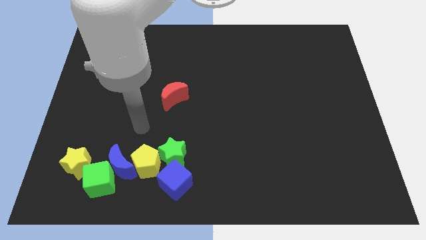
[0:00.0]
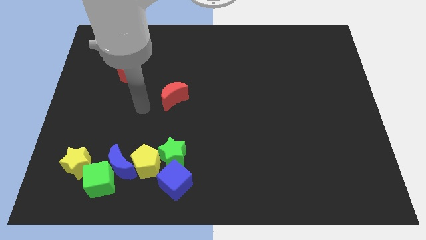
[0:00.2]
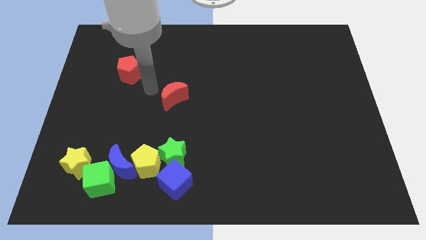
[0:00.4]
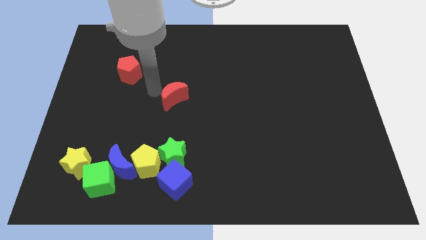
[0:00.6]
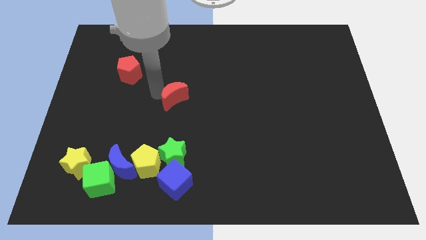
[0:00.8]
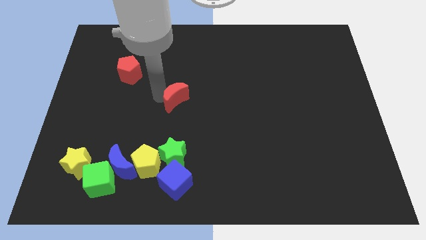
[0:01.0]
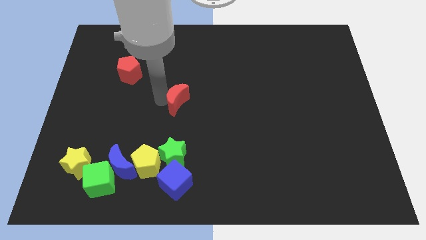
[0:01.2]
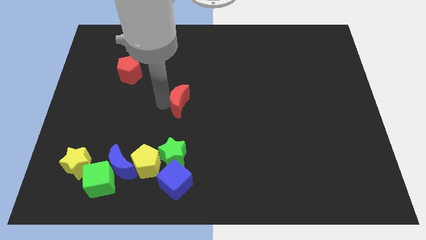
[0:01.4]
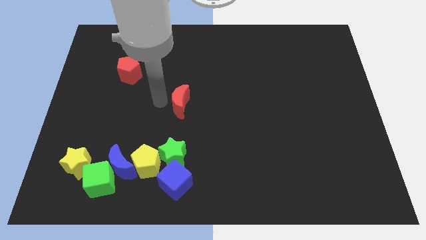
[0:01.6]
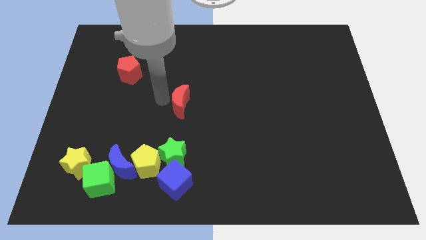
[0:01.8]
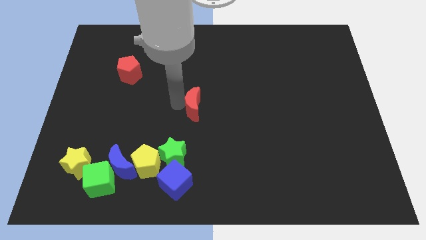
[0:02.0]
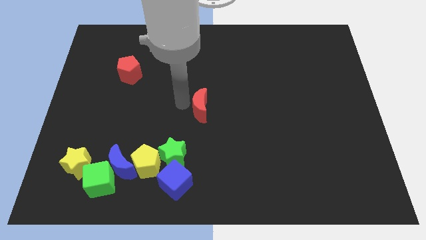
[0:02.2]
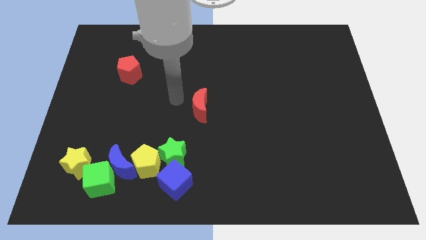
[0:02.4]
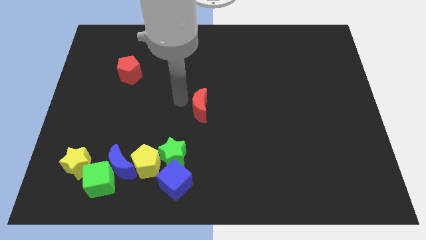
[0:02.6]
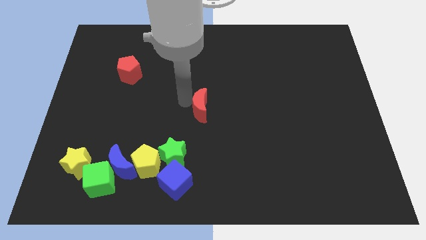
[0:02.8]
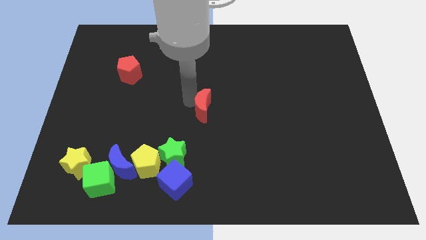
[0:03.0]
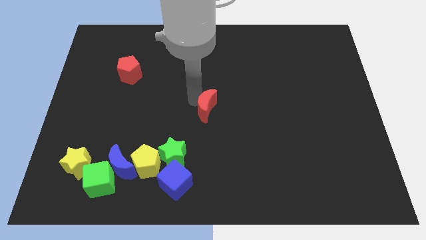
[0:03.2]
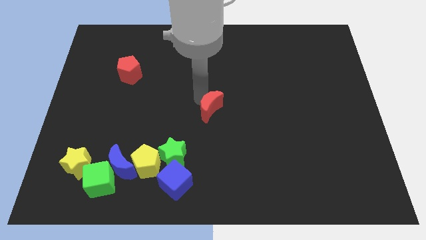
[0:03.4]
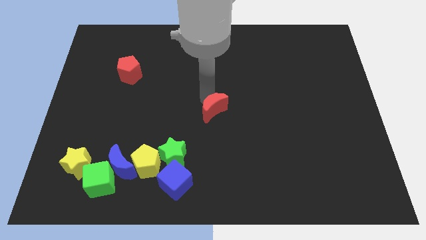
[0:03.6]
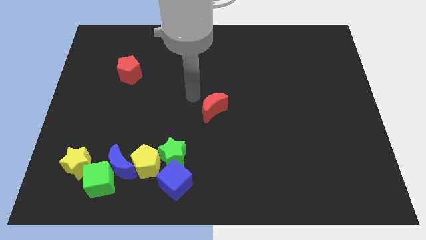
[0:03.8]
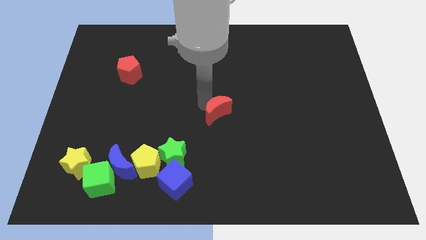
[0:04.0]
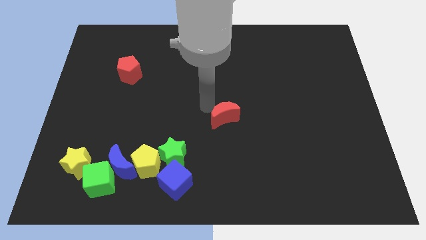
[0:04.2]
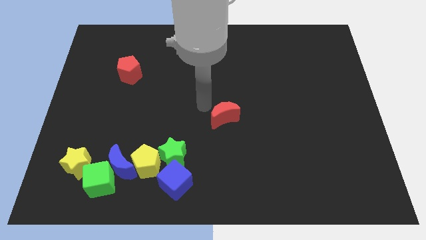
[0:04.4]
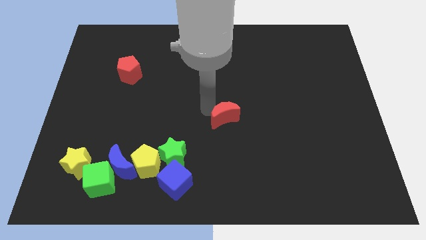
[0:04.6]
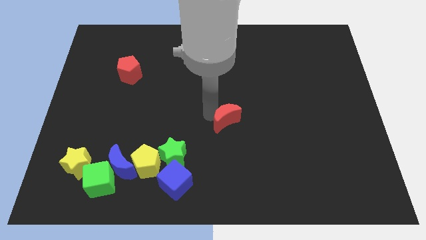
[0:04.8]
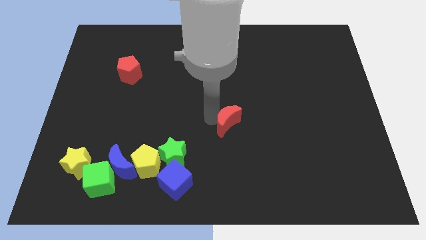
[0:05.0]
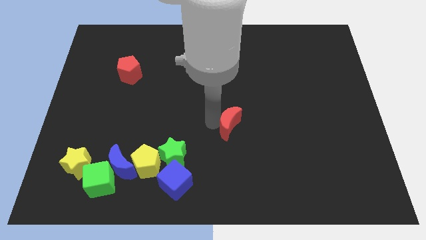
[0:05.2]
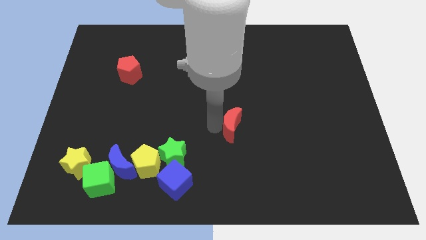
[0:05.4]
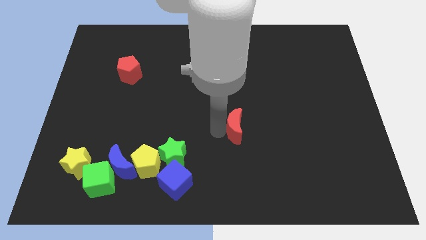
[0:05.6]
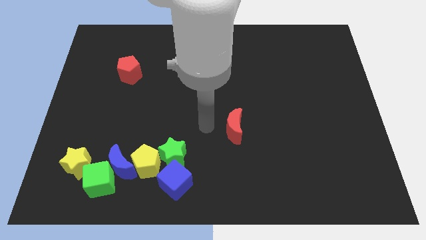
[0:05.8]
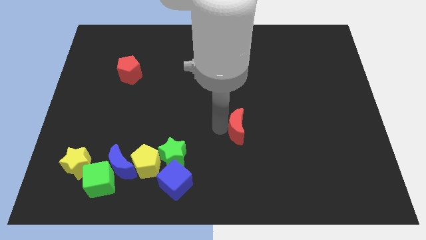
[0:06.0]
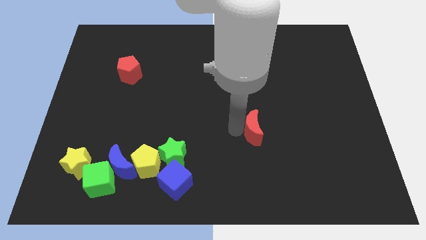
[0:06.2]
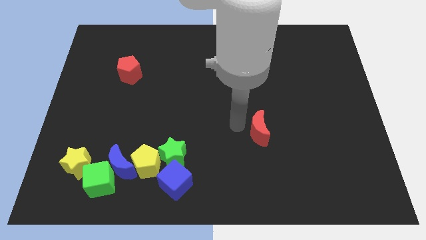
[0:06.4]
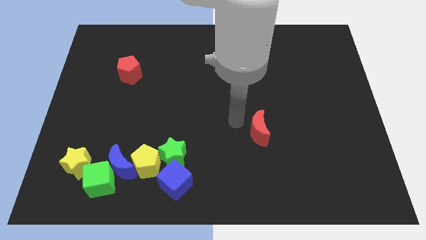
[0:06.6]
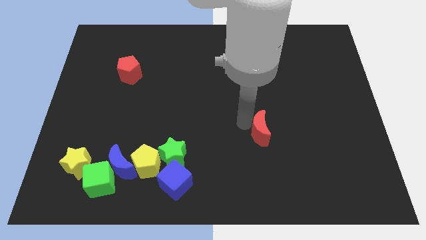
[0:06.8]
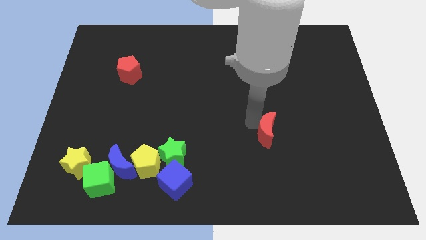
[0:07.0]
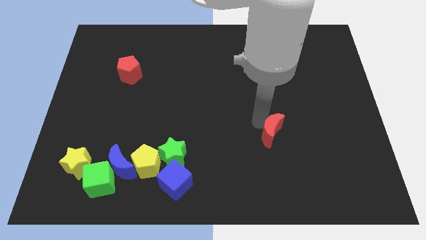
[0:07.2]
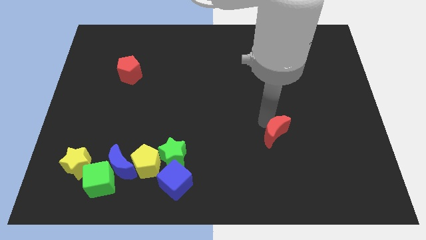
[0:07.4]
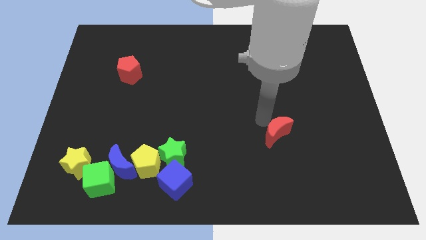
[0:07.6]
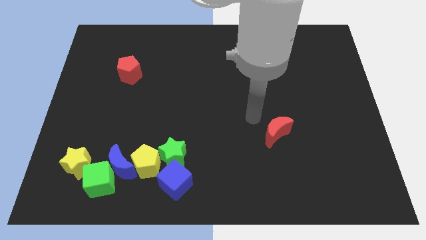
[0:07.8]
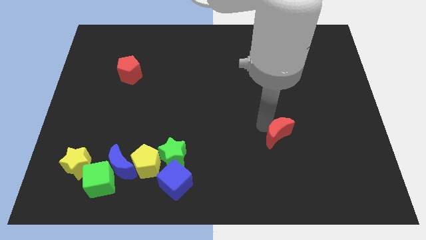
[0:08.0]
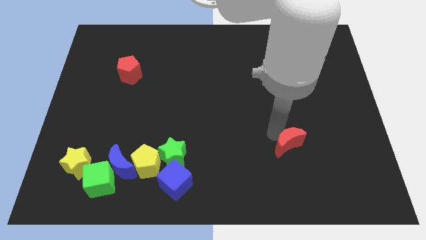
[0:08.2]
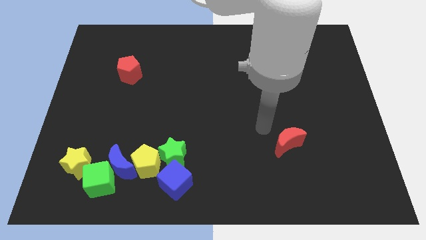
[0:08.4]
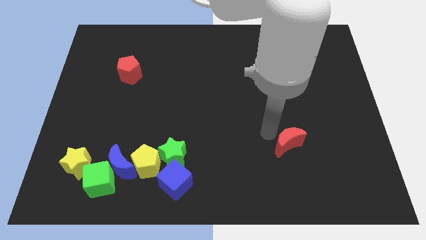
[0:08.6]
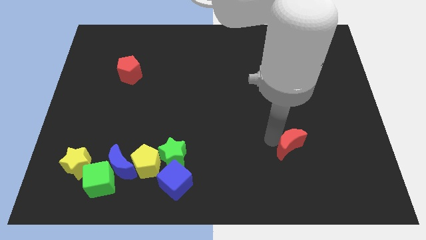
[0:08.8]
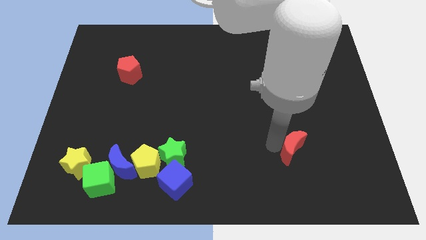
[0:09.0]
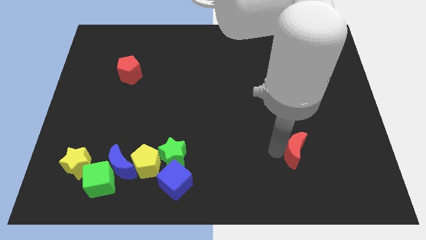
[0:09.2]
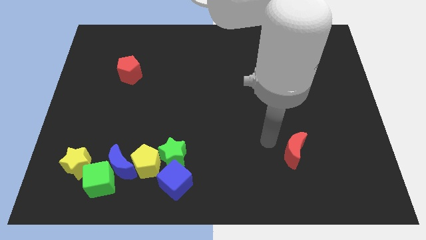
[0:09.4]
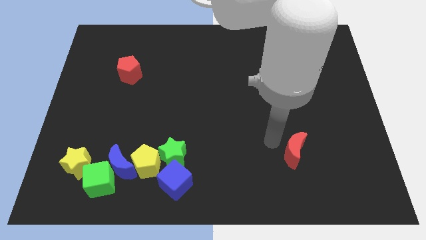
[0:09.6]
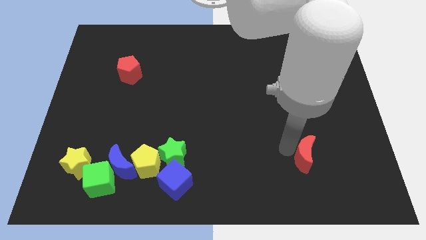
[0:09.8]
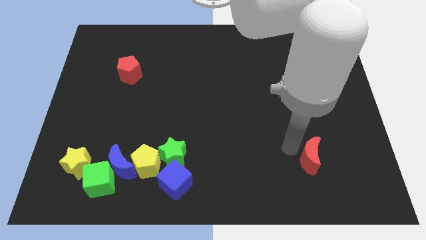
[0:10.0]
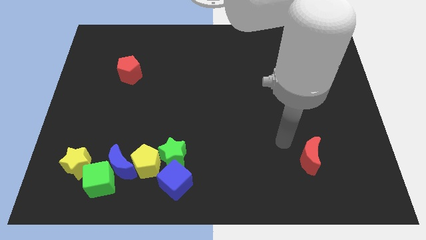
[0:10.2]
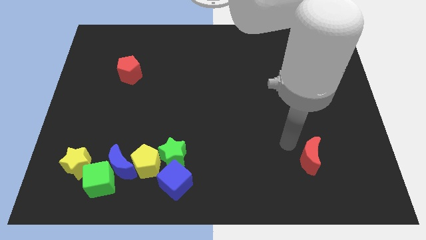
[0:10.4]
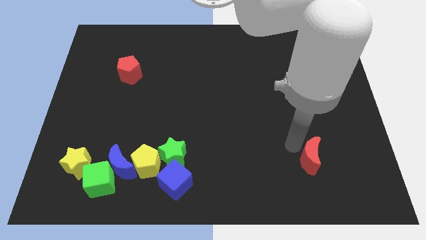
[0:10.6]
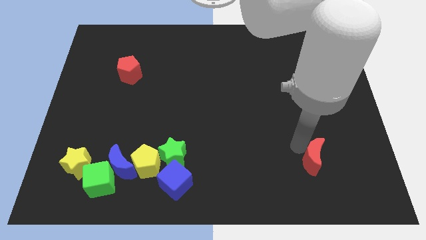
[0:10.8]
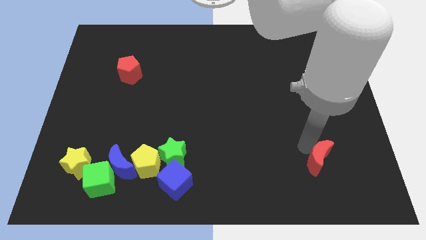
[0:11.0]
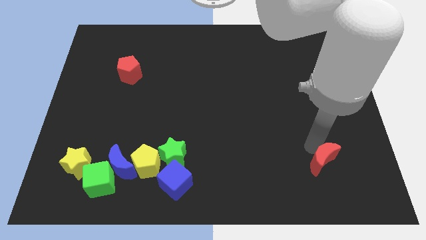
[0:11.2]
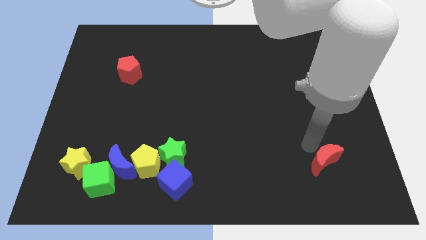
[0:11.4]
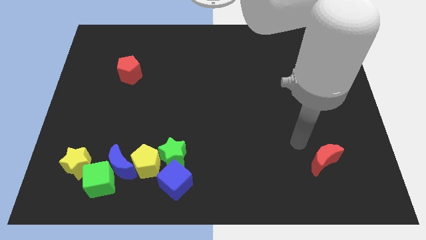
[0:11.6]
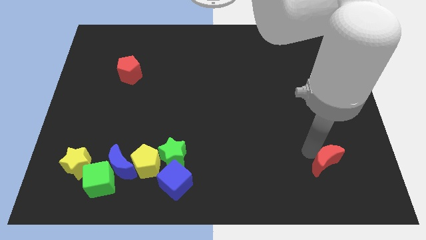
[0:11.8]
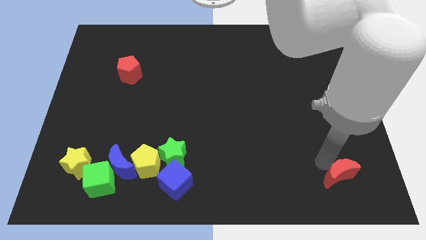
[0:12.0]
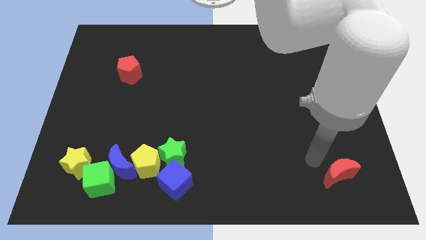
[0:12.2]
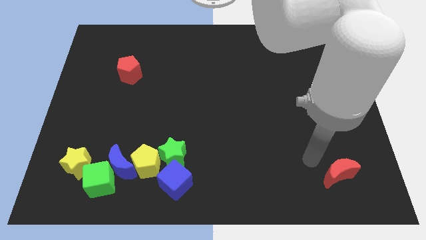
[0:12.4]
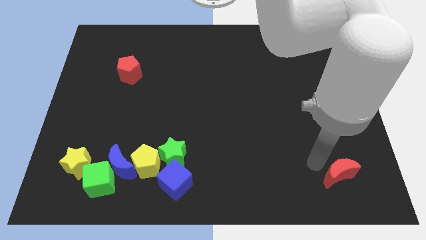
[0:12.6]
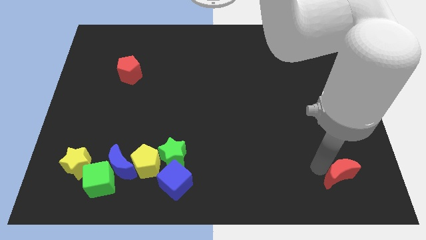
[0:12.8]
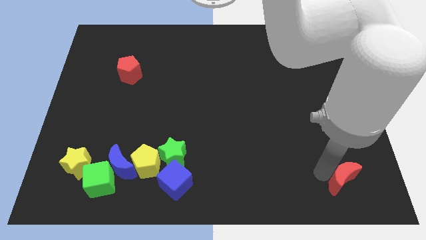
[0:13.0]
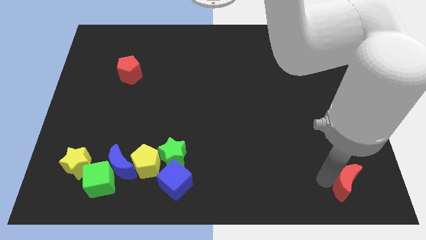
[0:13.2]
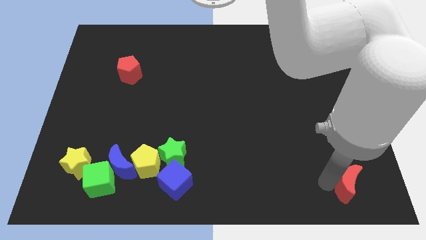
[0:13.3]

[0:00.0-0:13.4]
move the red moon to the bottom right of the board
